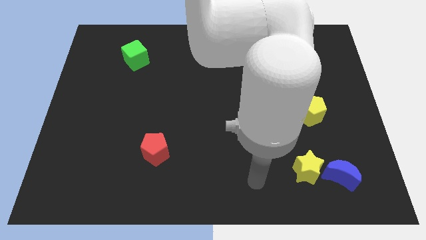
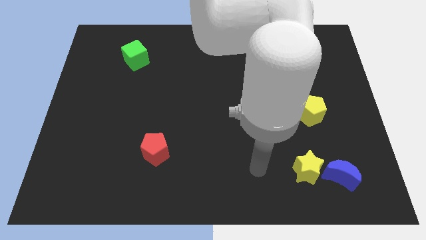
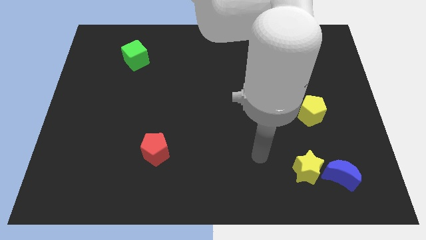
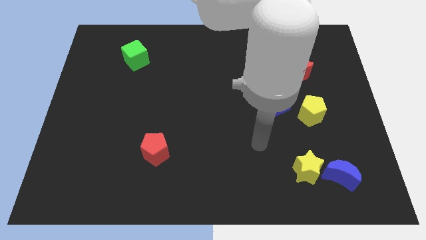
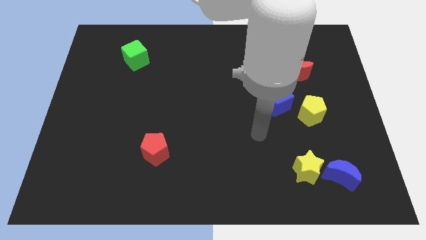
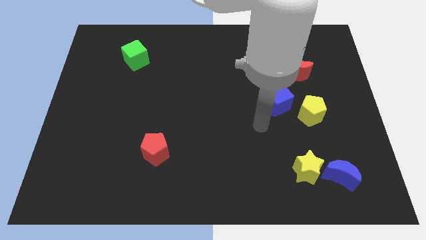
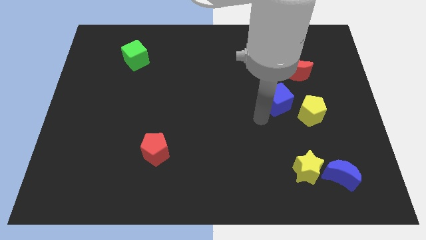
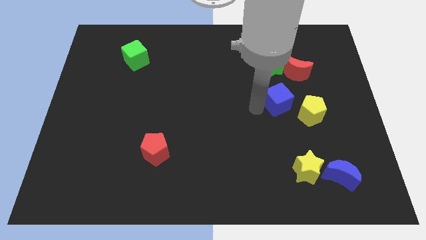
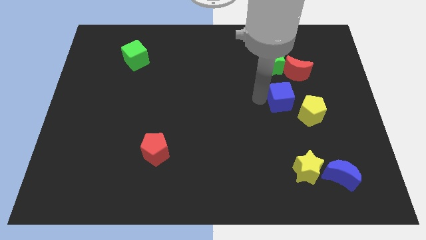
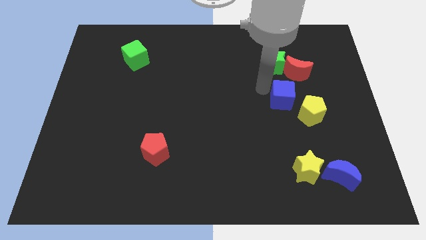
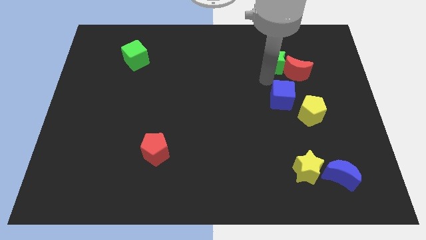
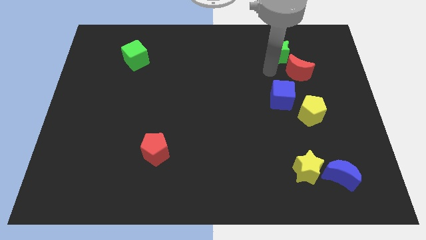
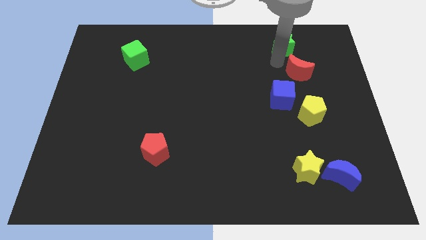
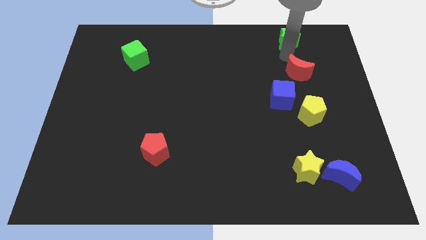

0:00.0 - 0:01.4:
separate the red moon from the green star

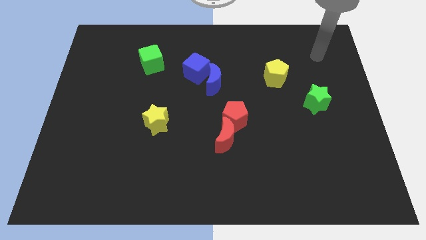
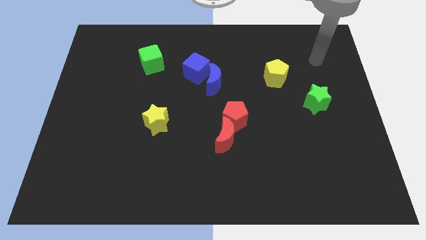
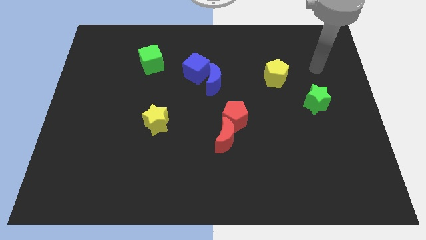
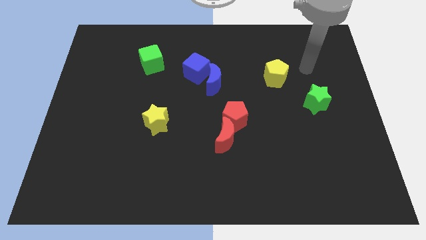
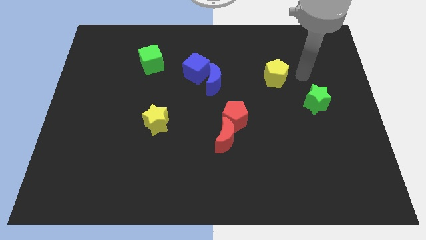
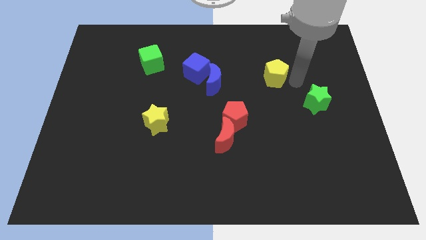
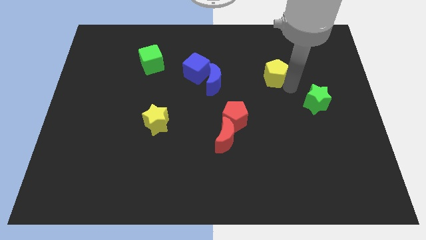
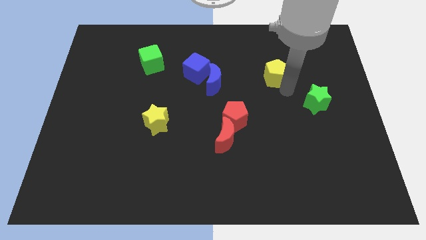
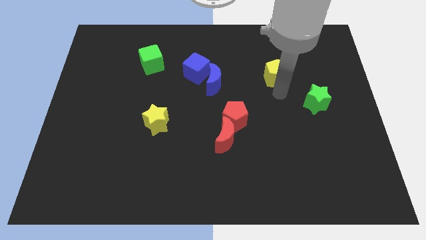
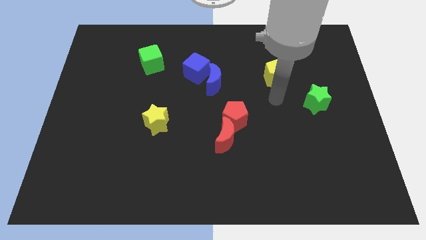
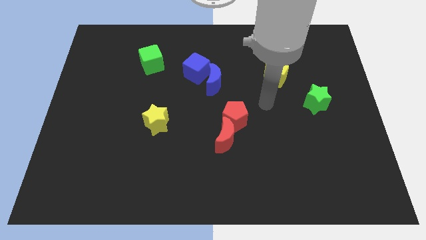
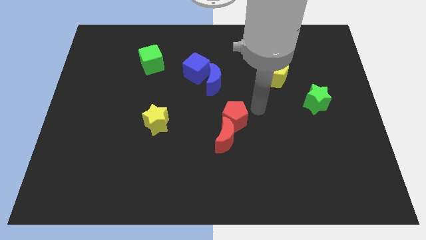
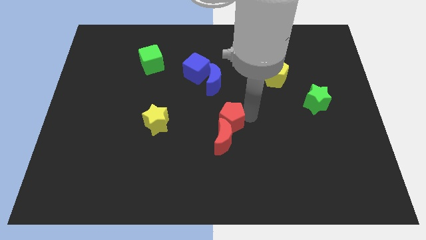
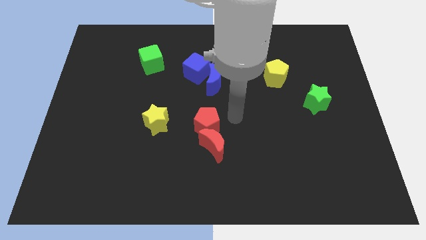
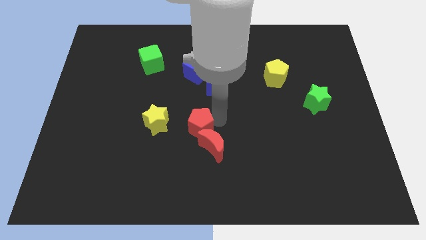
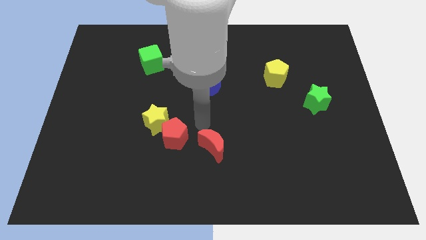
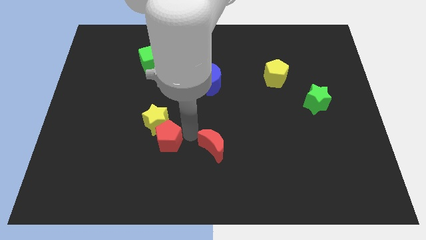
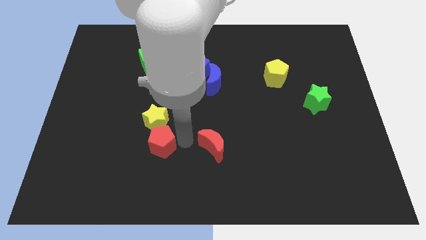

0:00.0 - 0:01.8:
separate the red moon from the red pentagon

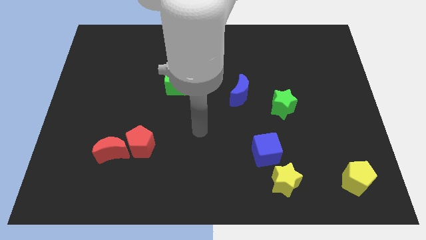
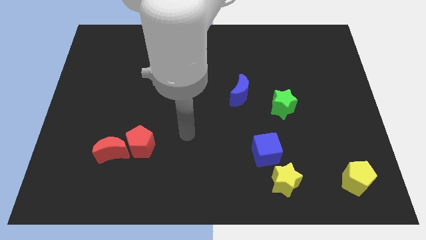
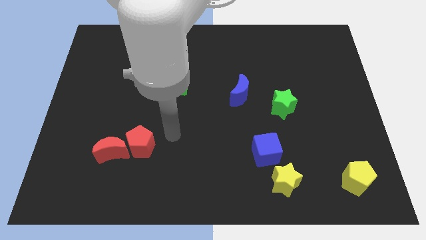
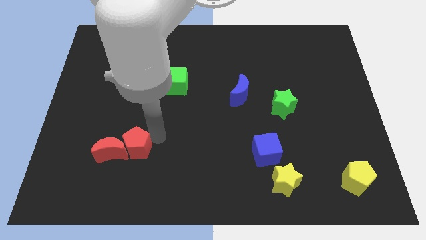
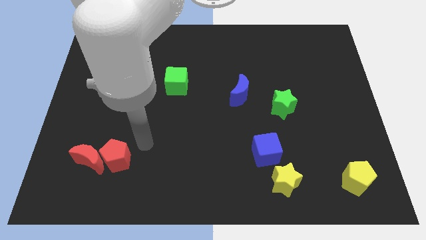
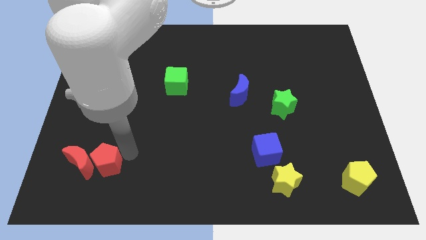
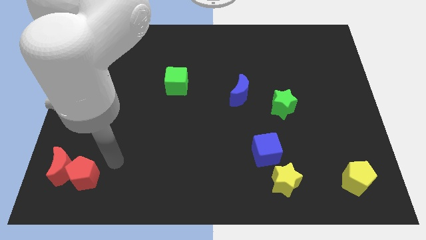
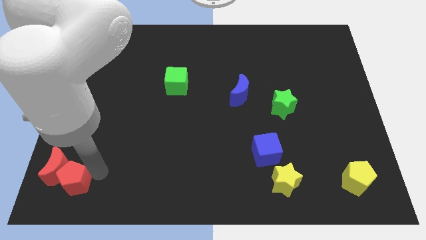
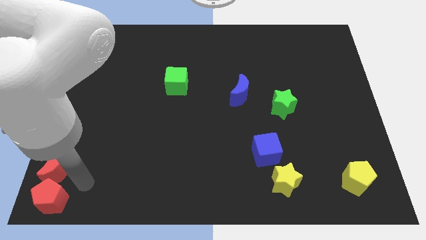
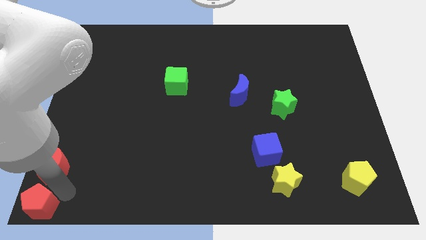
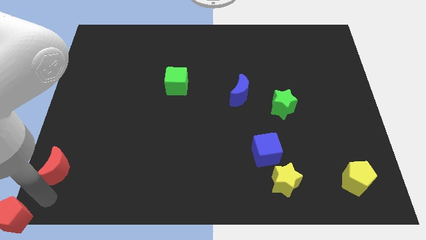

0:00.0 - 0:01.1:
pull the red moon apart from the red pentagon

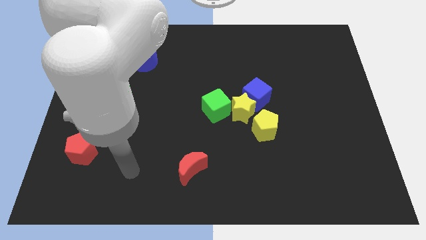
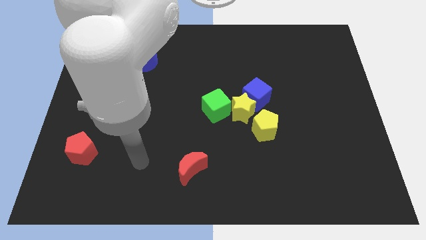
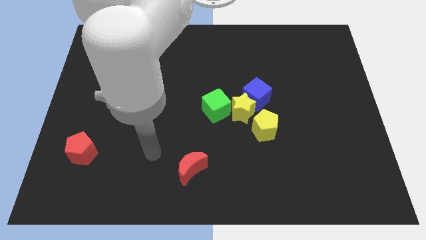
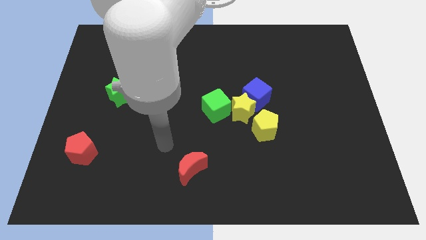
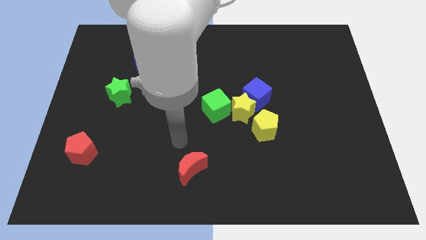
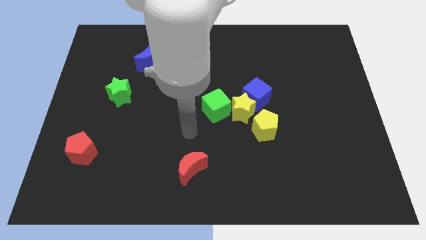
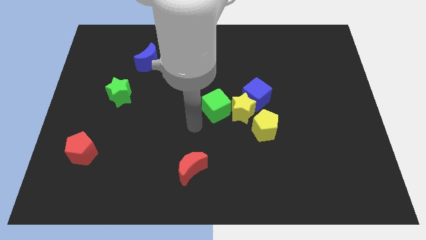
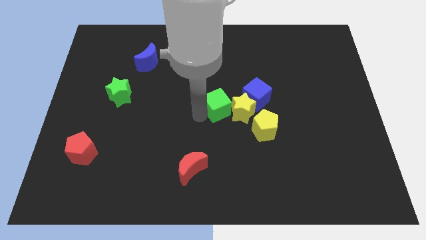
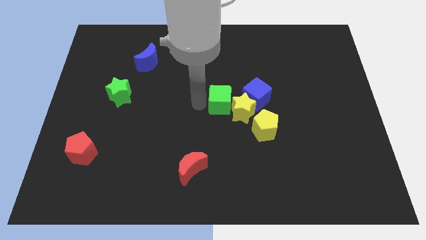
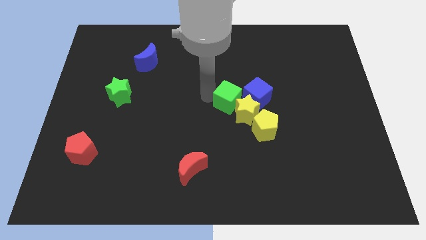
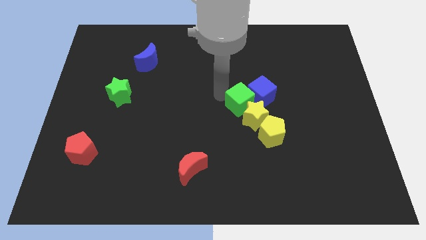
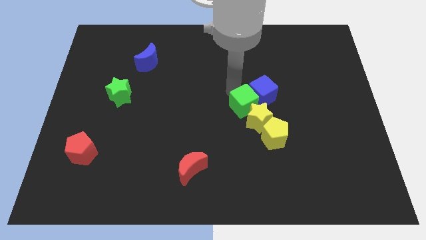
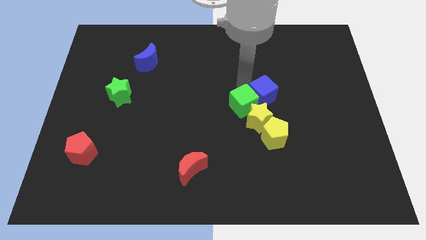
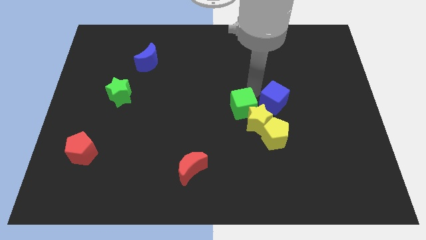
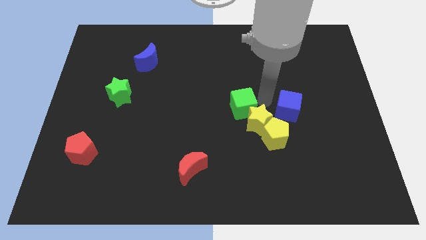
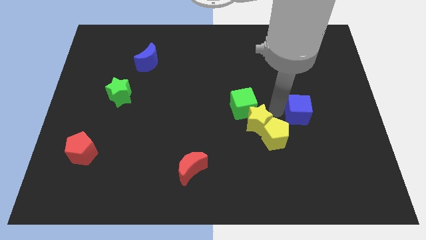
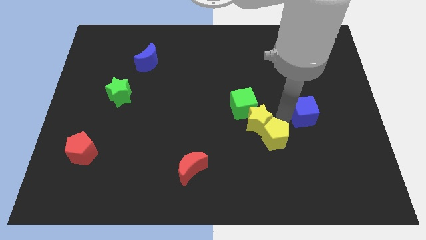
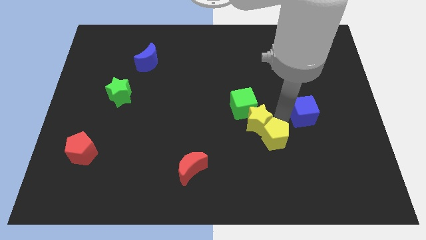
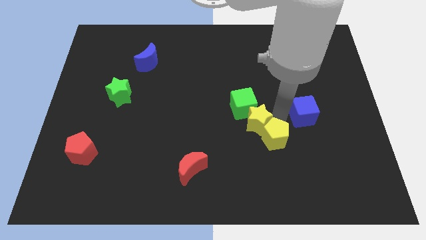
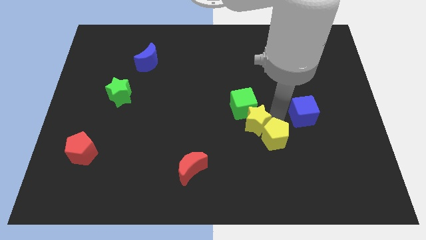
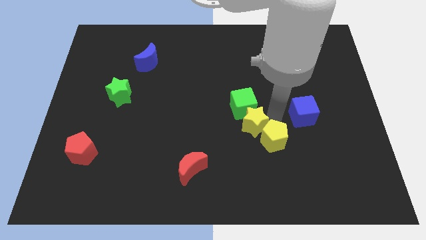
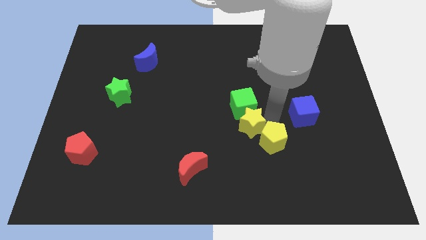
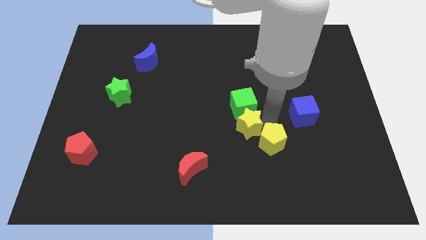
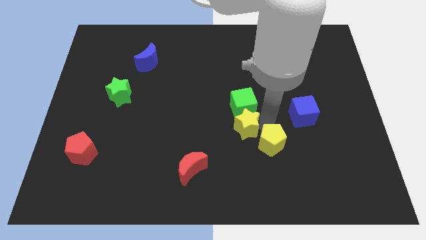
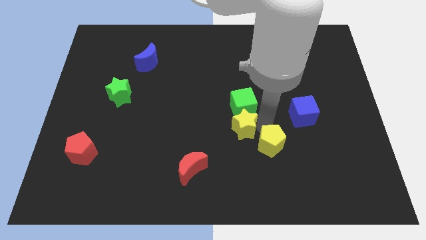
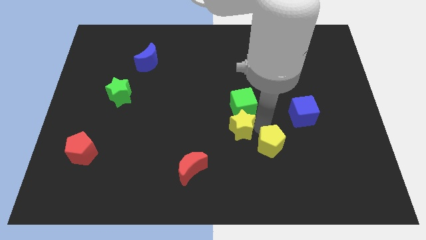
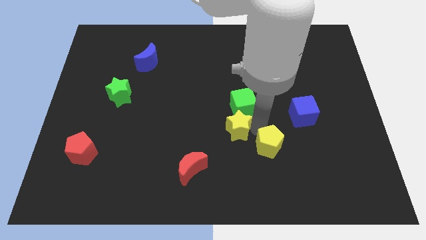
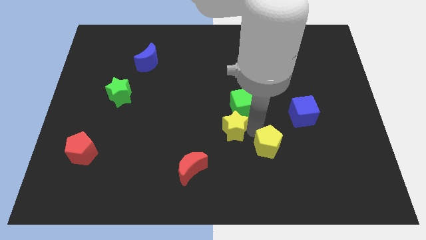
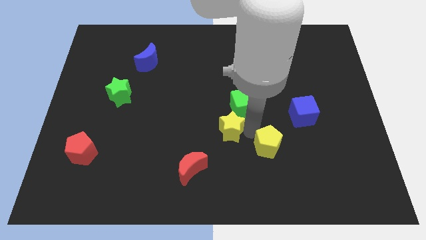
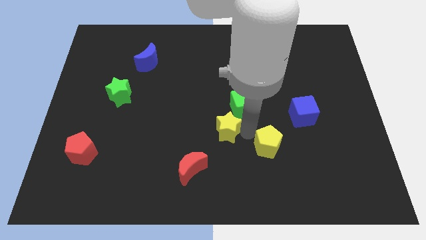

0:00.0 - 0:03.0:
separate the yellow star from the blue cube, green cube, and yellow pentagon

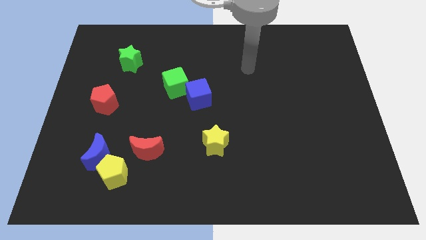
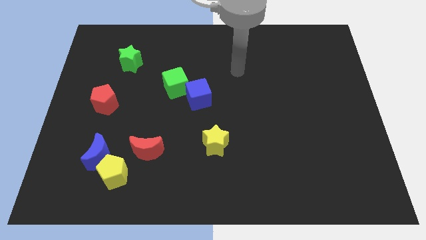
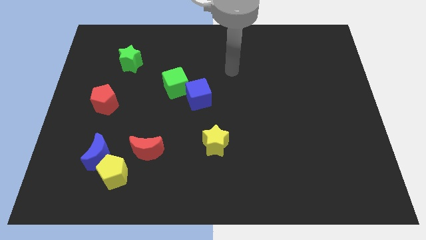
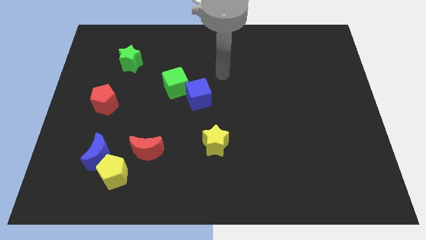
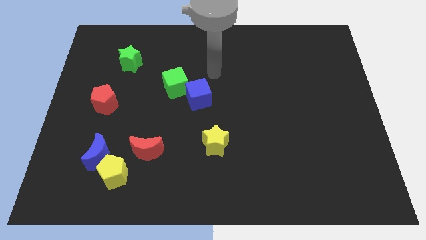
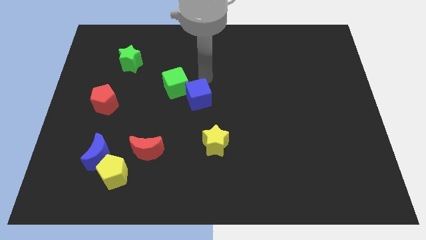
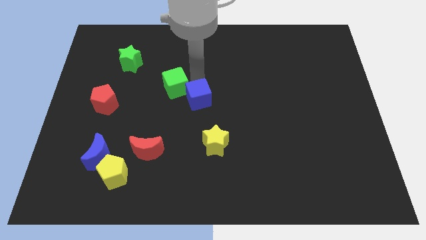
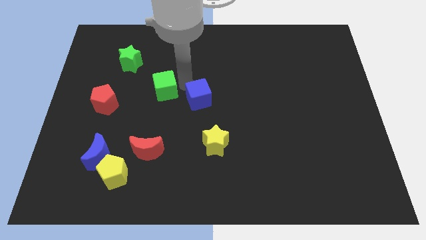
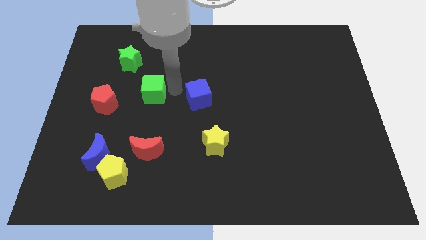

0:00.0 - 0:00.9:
separate the blue cube from the green cube

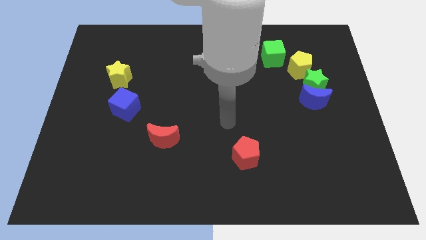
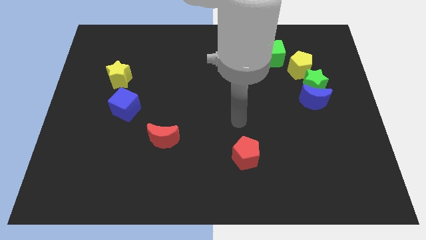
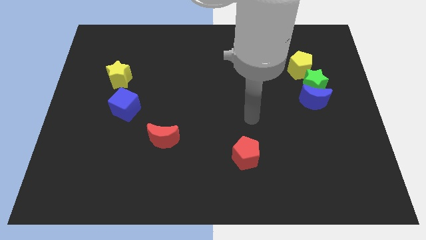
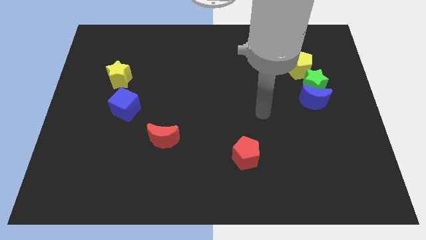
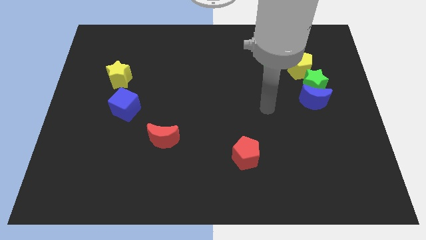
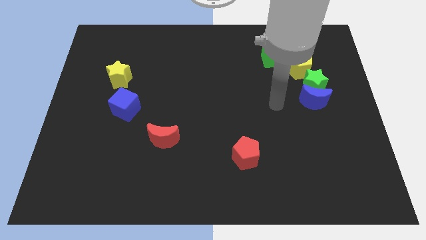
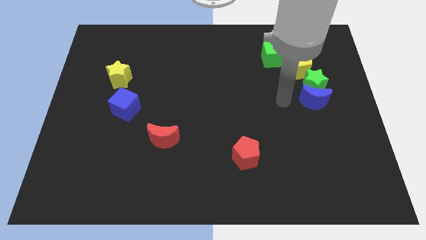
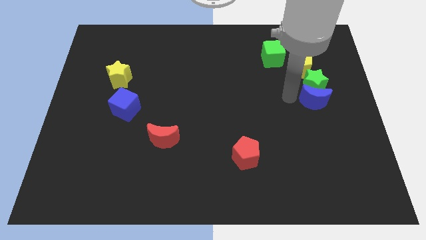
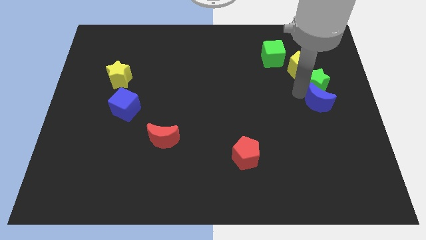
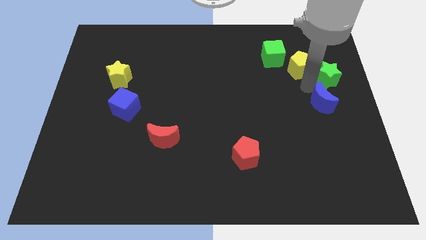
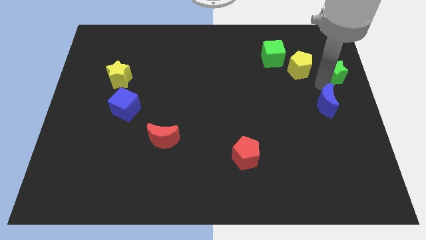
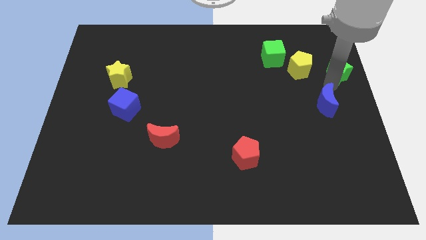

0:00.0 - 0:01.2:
move the blue moon away from the green star
